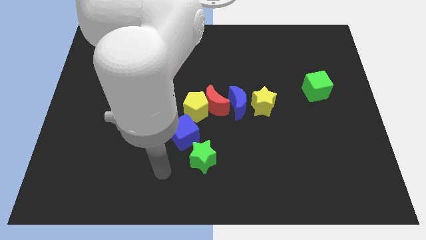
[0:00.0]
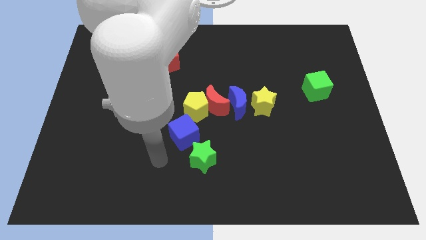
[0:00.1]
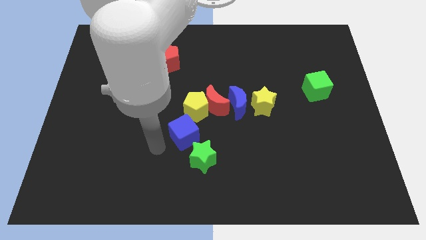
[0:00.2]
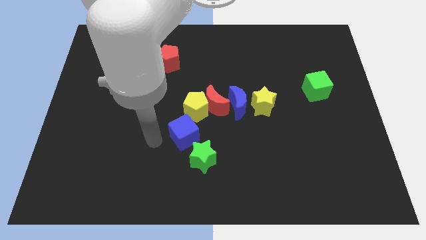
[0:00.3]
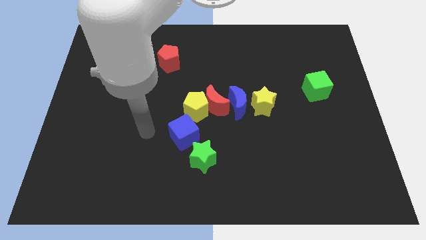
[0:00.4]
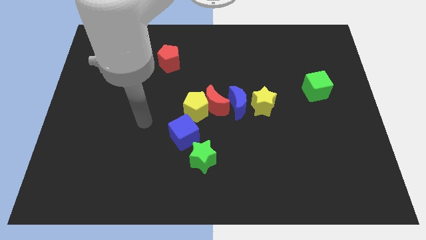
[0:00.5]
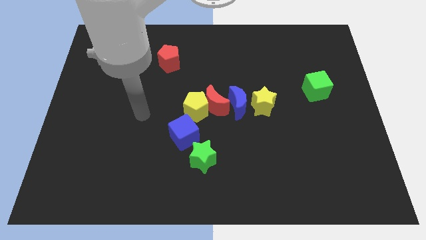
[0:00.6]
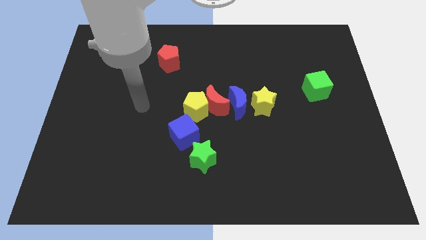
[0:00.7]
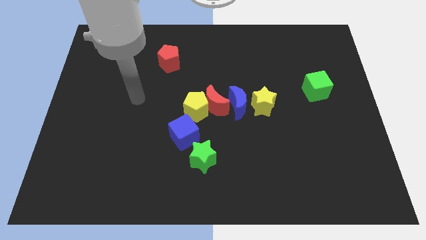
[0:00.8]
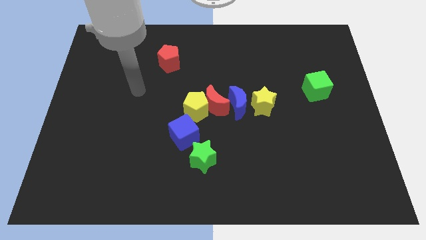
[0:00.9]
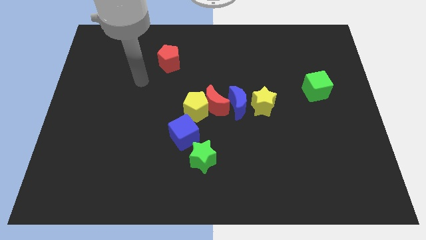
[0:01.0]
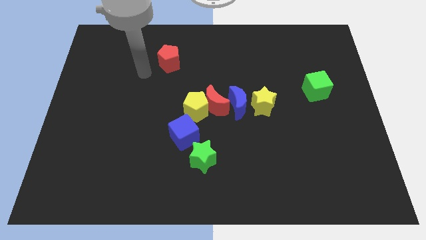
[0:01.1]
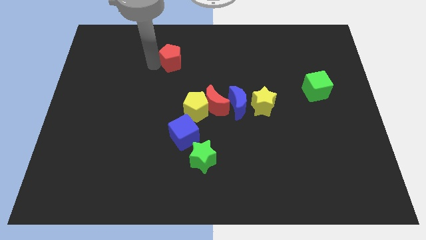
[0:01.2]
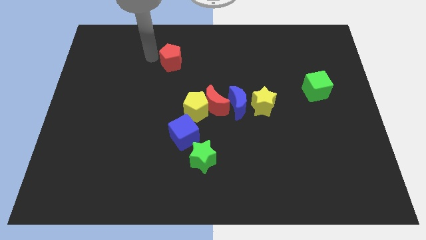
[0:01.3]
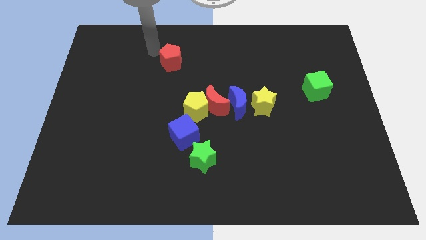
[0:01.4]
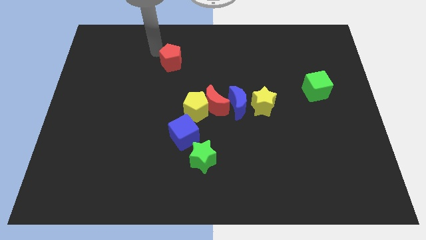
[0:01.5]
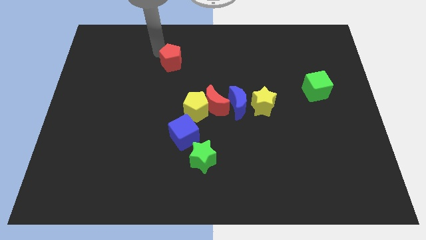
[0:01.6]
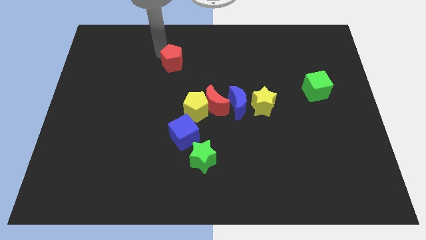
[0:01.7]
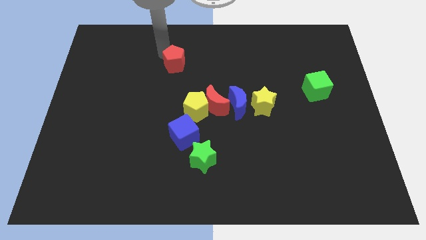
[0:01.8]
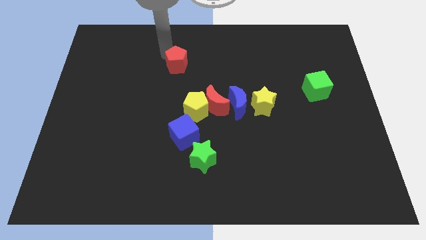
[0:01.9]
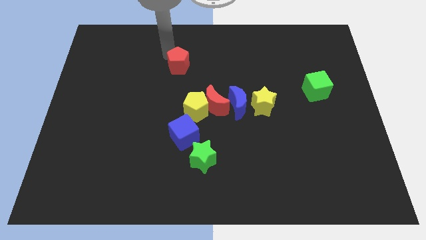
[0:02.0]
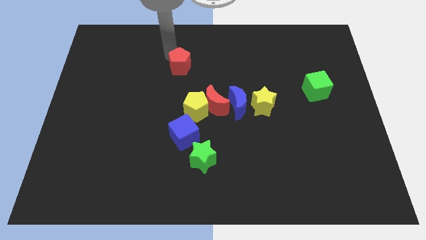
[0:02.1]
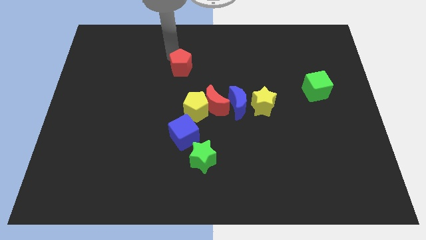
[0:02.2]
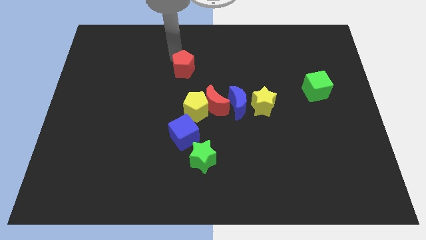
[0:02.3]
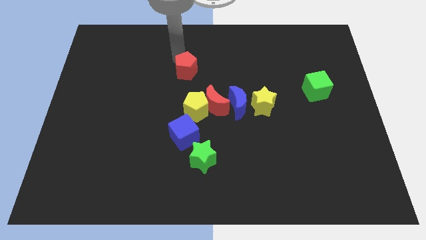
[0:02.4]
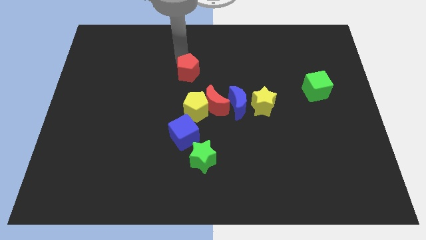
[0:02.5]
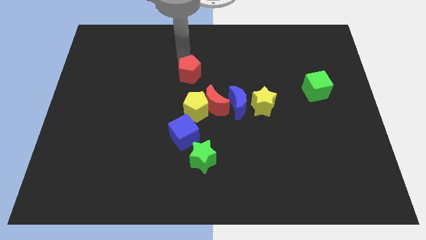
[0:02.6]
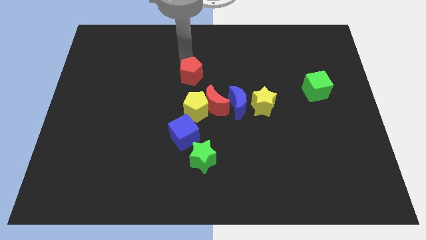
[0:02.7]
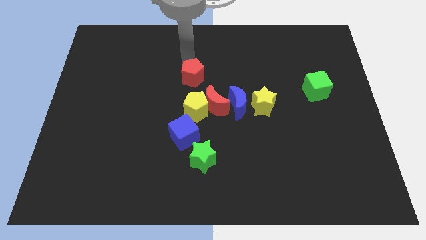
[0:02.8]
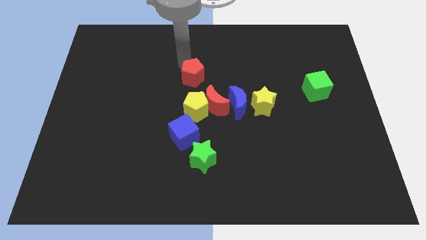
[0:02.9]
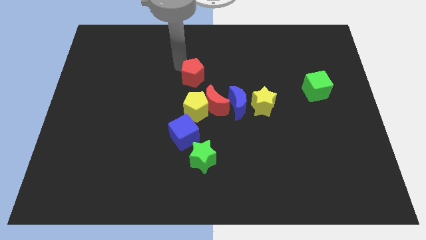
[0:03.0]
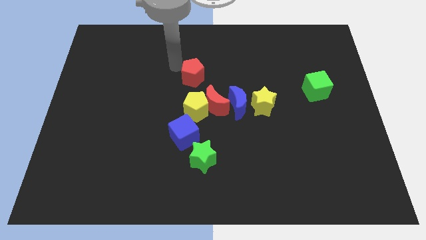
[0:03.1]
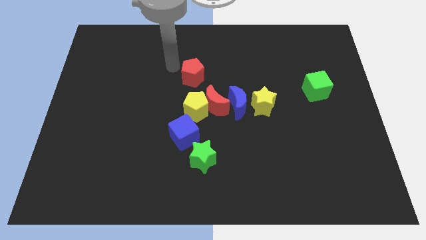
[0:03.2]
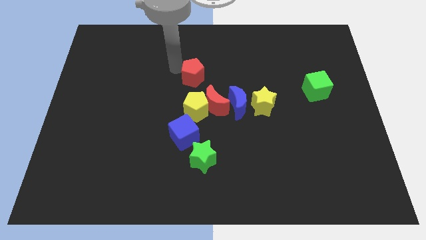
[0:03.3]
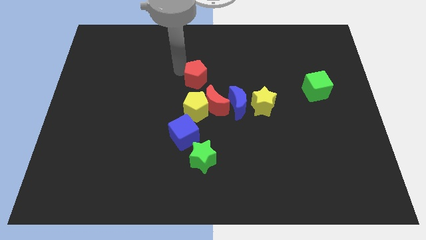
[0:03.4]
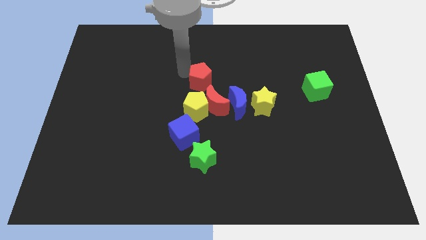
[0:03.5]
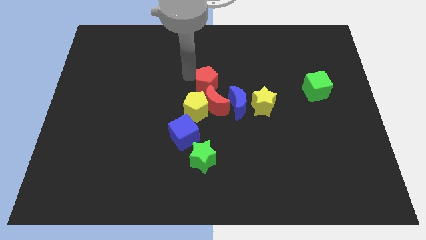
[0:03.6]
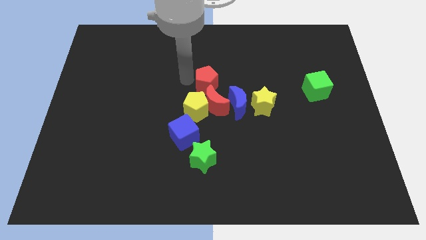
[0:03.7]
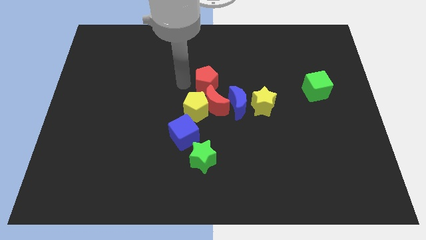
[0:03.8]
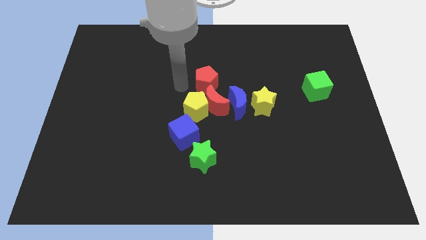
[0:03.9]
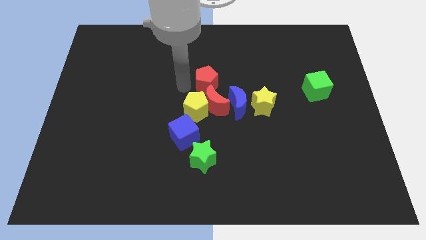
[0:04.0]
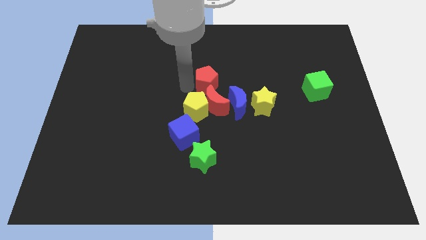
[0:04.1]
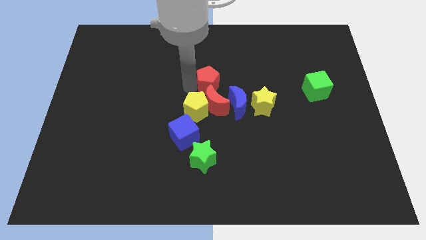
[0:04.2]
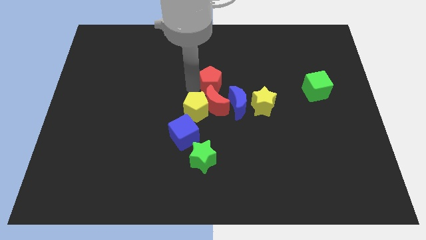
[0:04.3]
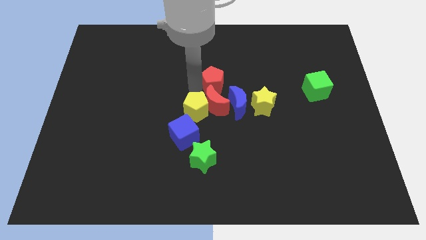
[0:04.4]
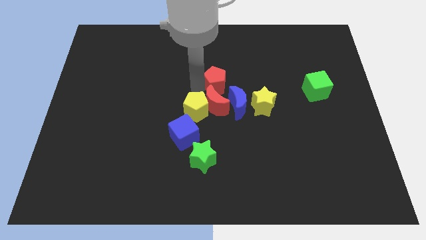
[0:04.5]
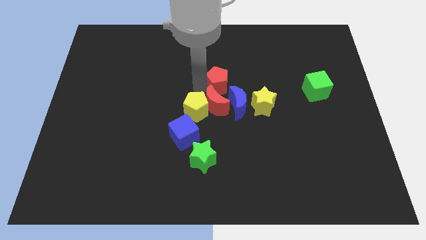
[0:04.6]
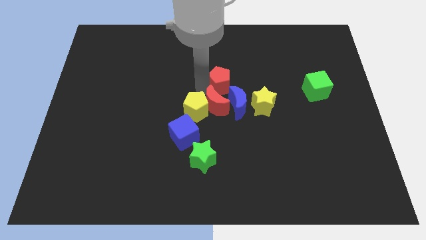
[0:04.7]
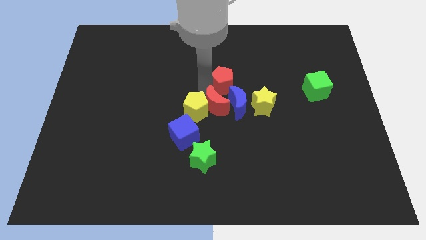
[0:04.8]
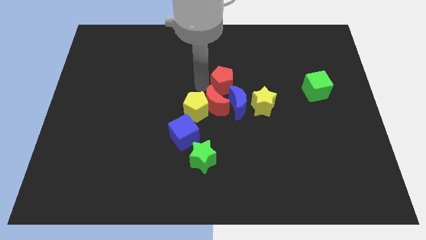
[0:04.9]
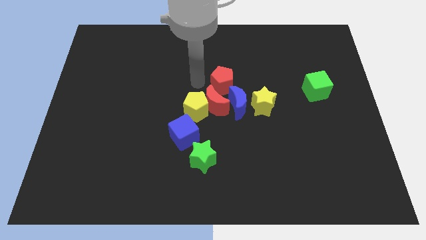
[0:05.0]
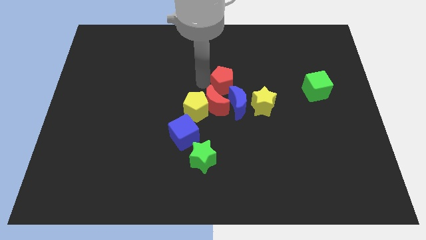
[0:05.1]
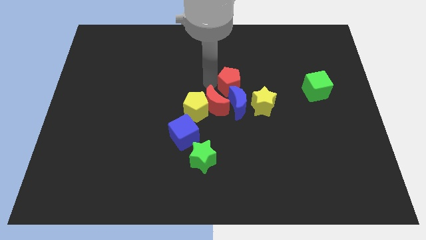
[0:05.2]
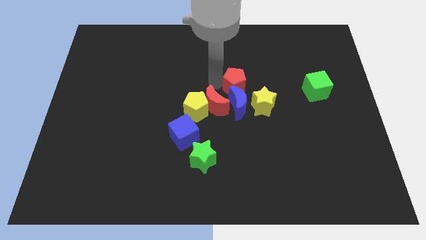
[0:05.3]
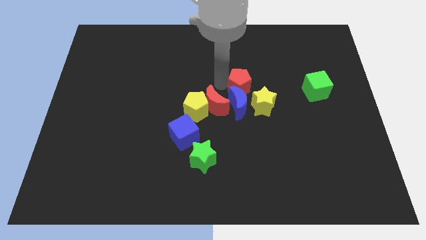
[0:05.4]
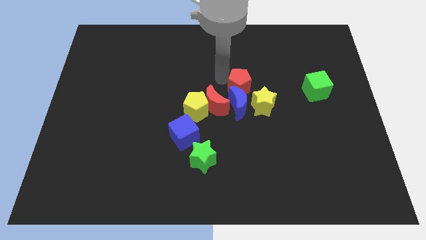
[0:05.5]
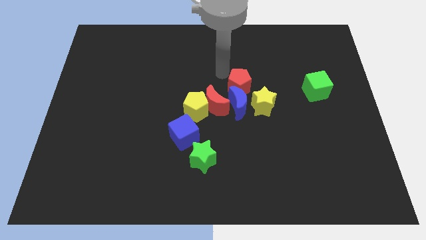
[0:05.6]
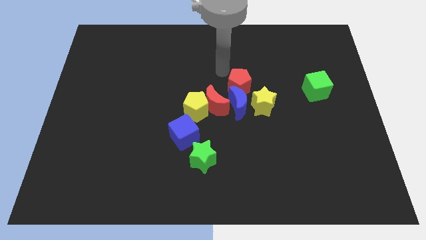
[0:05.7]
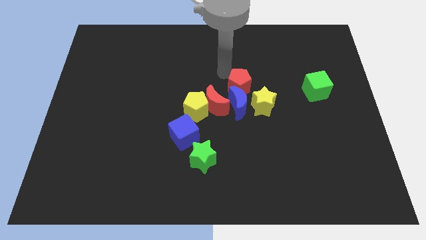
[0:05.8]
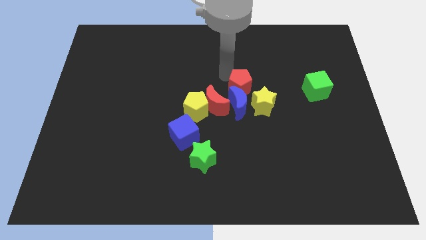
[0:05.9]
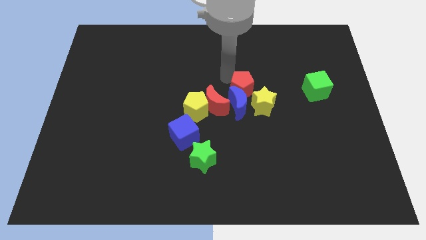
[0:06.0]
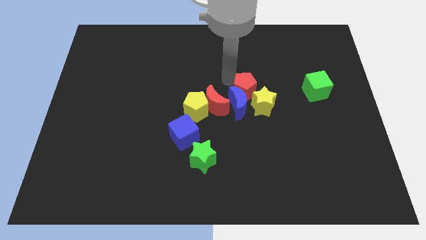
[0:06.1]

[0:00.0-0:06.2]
put the red pentagon close to the yellow star
